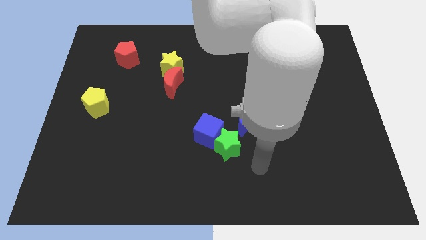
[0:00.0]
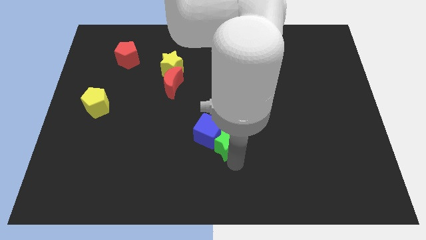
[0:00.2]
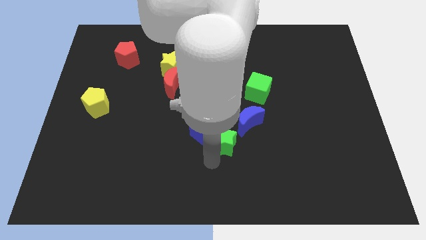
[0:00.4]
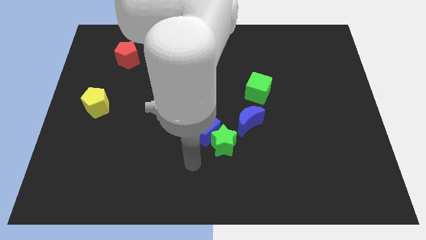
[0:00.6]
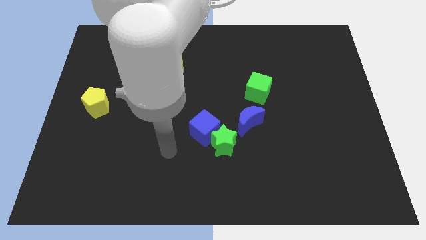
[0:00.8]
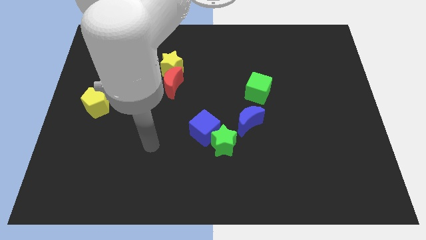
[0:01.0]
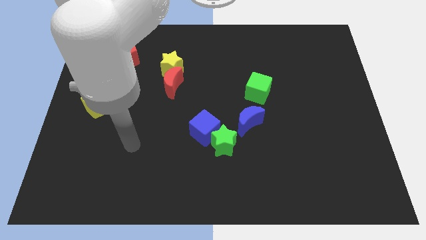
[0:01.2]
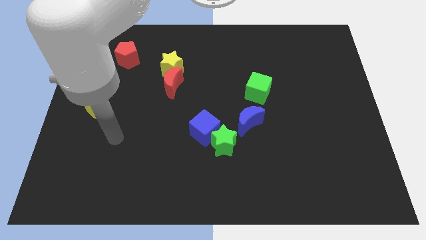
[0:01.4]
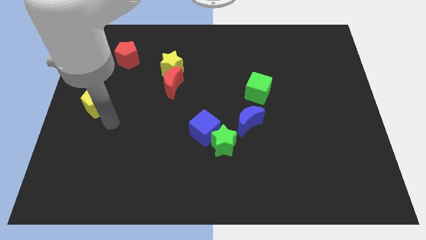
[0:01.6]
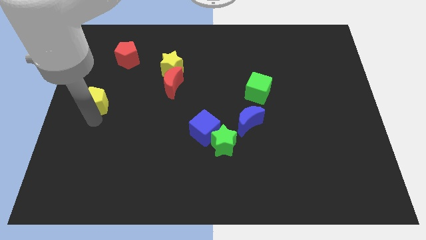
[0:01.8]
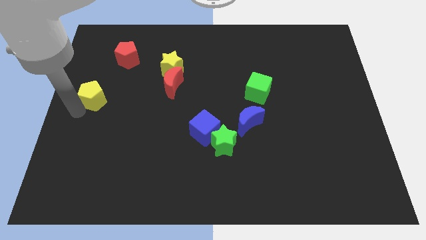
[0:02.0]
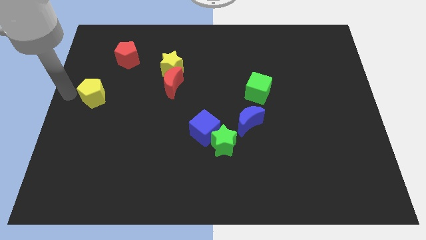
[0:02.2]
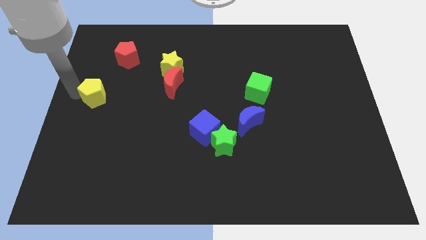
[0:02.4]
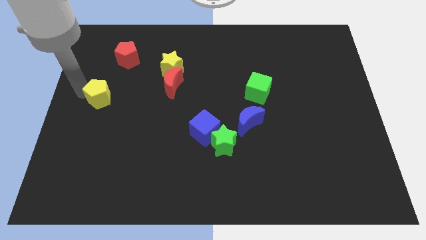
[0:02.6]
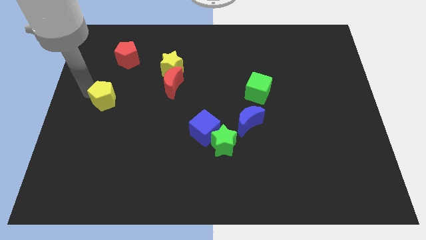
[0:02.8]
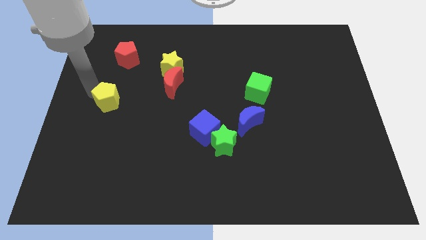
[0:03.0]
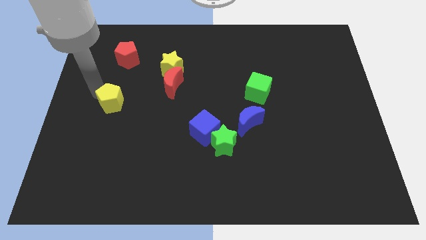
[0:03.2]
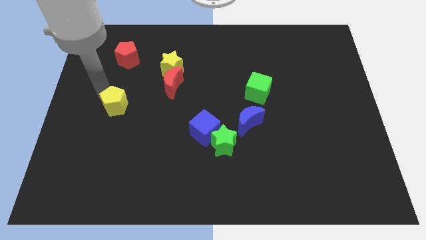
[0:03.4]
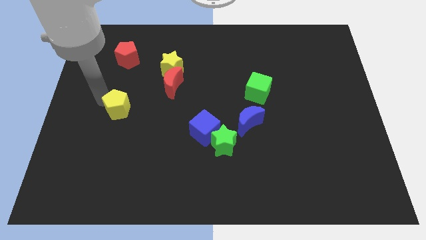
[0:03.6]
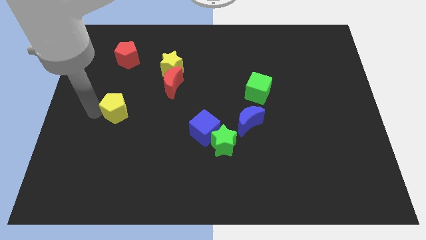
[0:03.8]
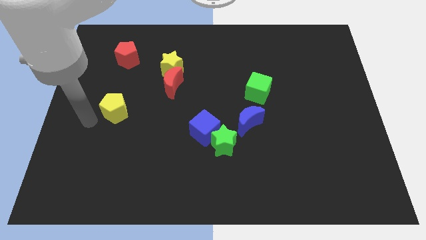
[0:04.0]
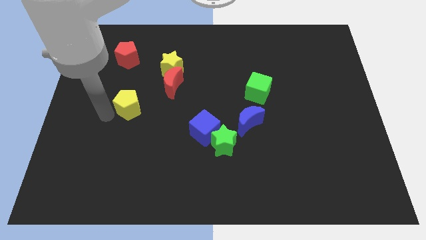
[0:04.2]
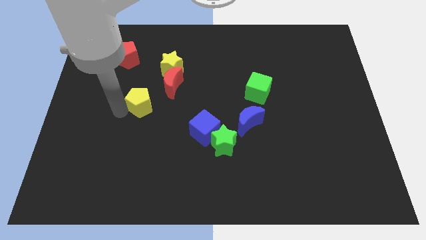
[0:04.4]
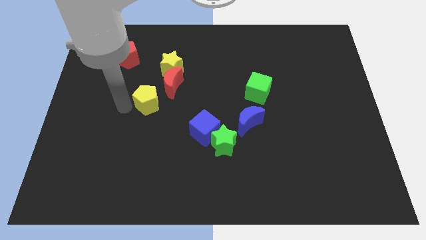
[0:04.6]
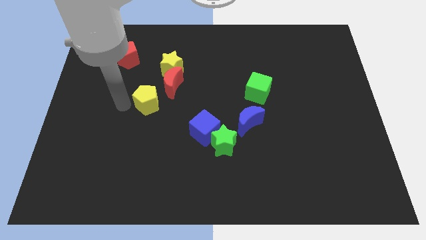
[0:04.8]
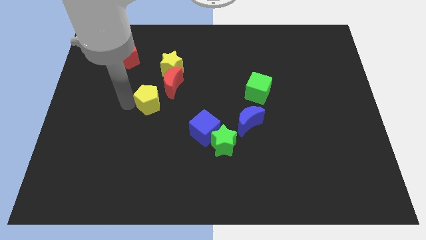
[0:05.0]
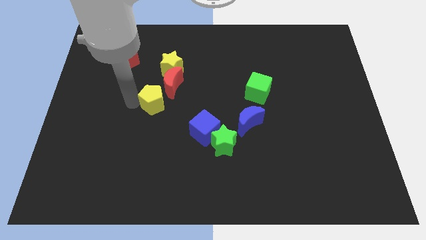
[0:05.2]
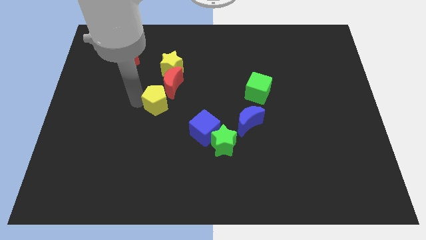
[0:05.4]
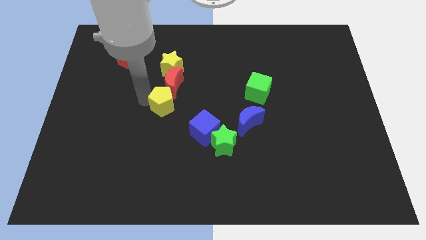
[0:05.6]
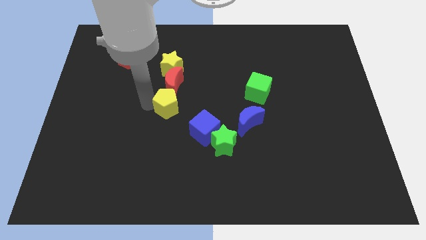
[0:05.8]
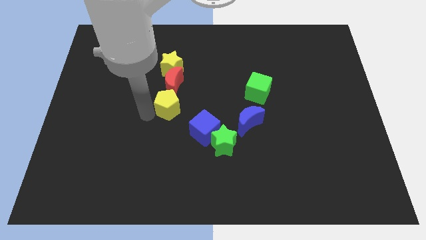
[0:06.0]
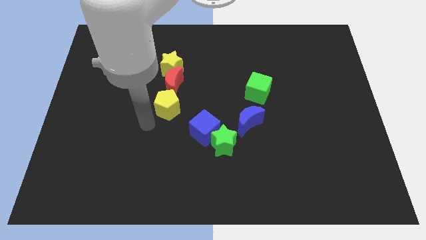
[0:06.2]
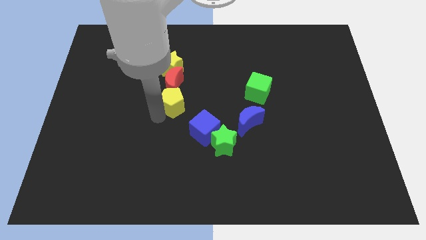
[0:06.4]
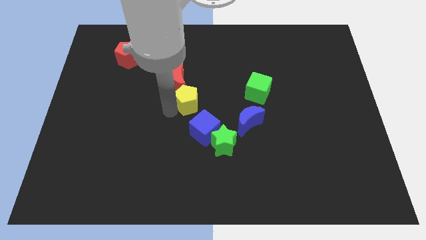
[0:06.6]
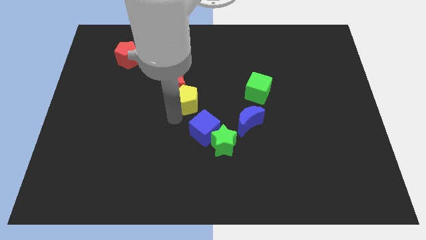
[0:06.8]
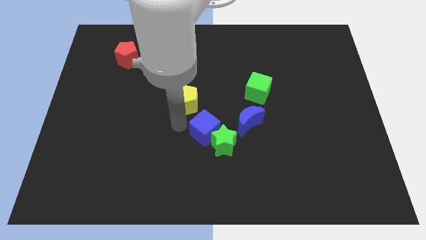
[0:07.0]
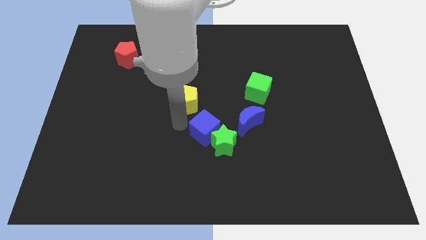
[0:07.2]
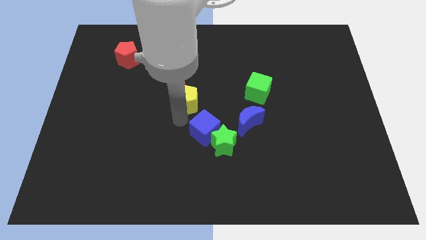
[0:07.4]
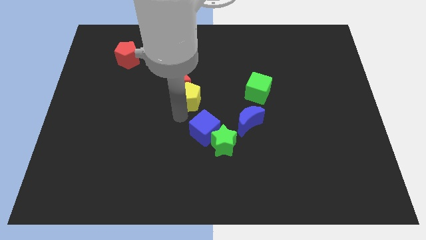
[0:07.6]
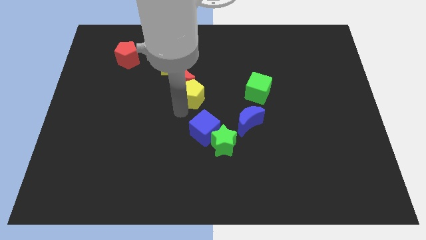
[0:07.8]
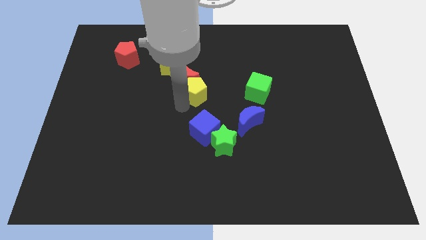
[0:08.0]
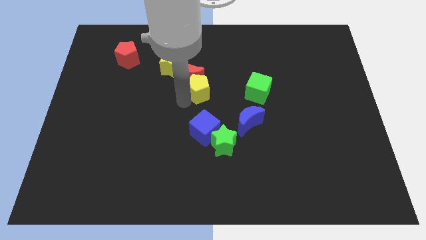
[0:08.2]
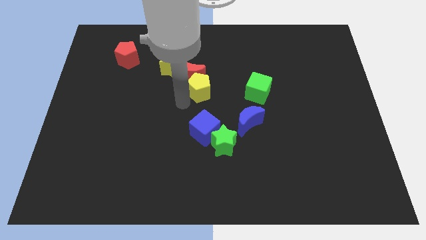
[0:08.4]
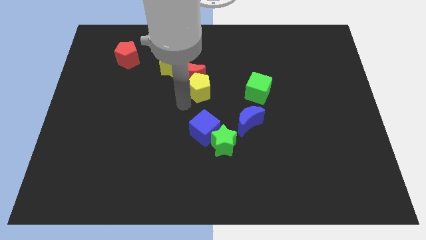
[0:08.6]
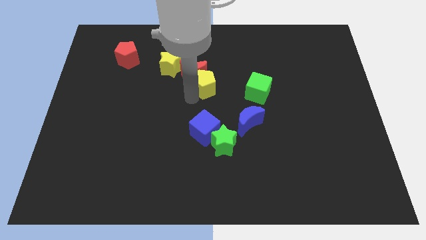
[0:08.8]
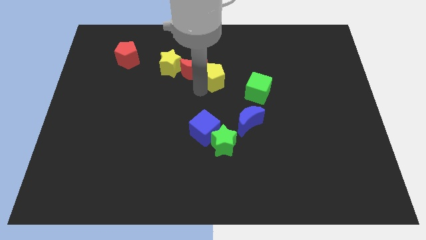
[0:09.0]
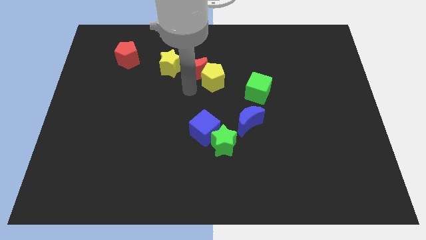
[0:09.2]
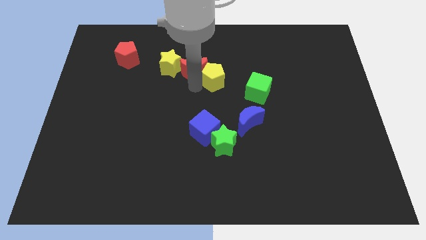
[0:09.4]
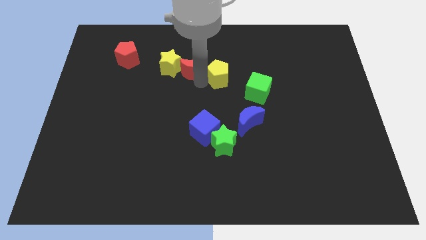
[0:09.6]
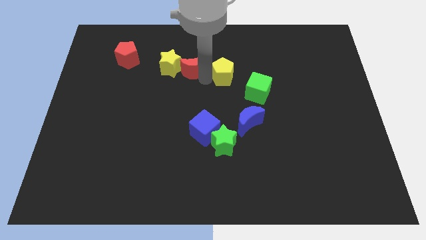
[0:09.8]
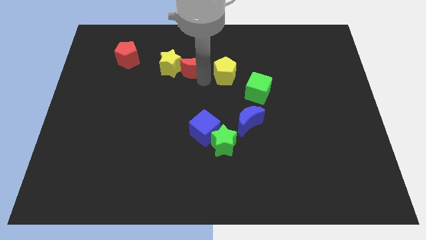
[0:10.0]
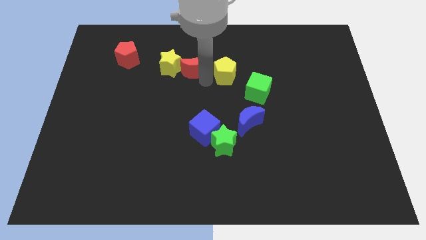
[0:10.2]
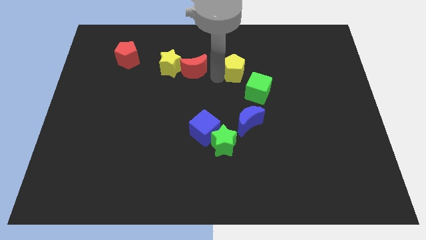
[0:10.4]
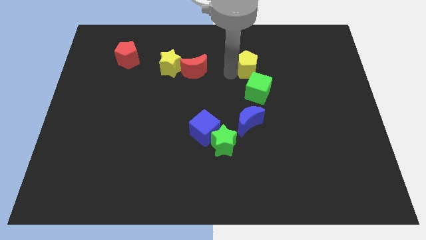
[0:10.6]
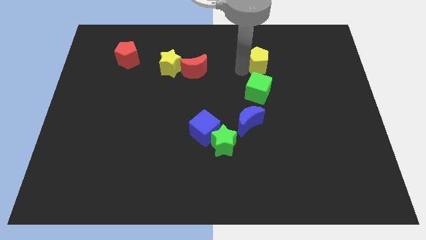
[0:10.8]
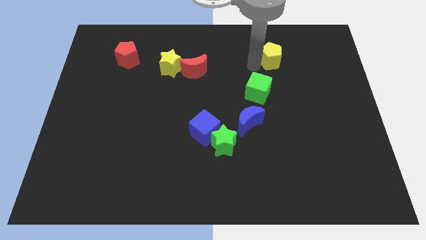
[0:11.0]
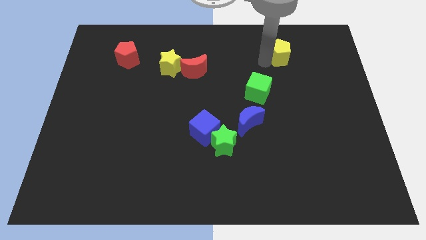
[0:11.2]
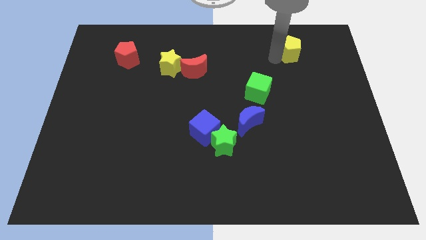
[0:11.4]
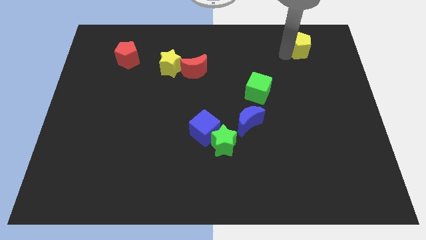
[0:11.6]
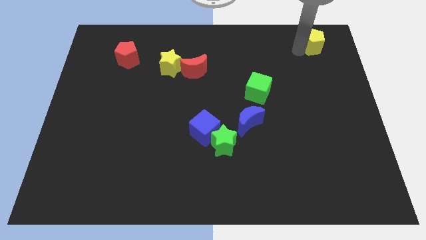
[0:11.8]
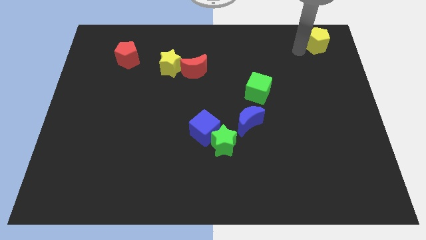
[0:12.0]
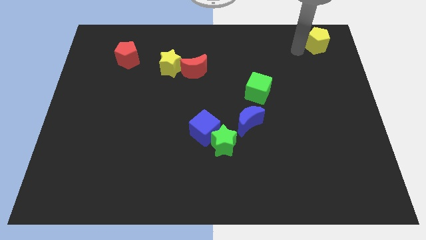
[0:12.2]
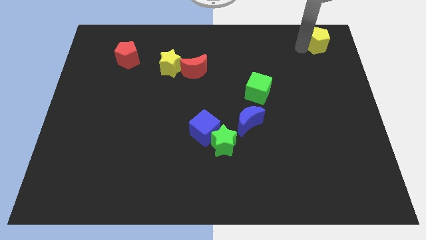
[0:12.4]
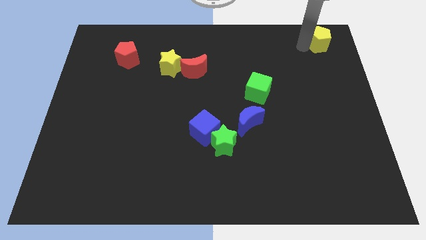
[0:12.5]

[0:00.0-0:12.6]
put the yellow pentagon to the top right corner
